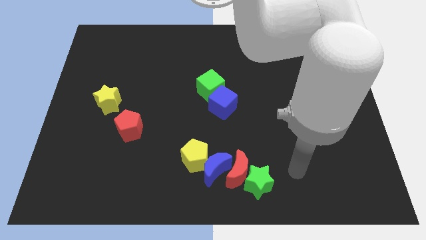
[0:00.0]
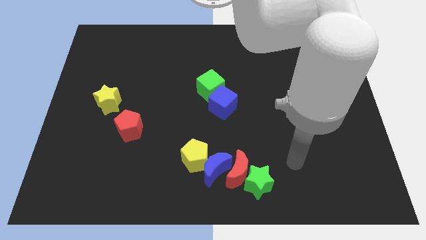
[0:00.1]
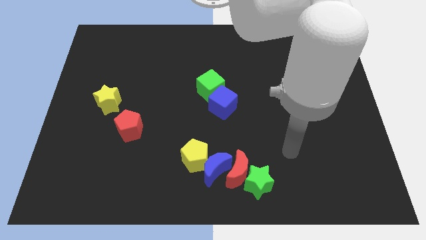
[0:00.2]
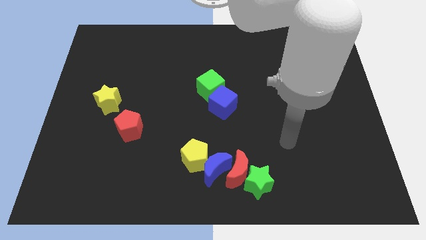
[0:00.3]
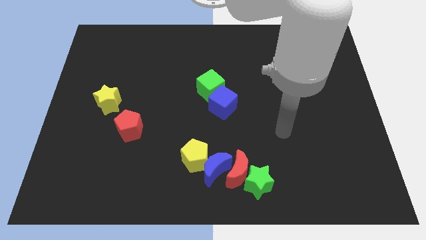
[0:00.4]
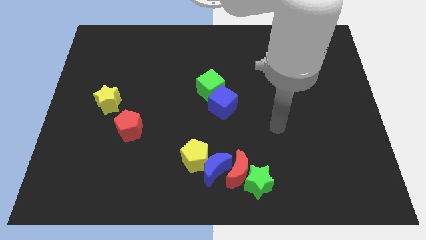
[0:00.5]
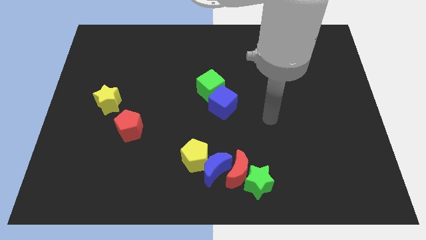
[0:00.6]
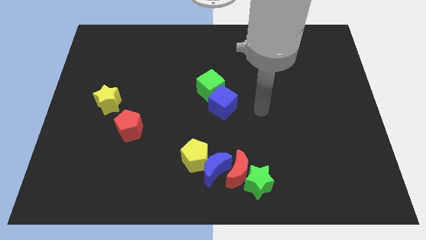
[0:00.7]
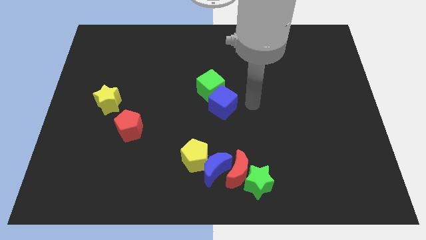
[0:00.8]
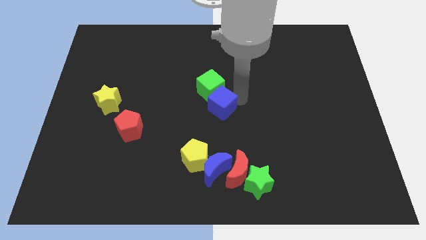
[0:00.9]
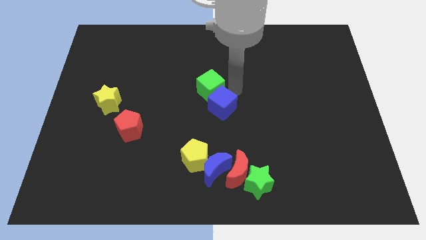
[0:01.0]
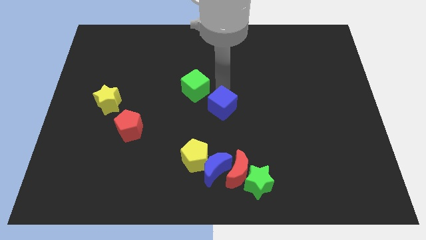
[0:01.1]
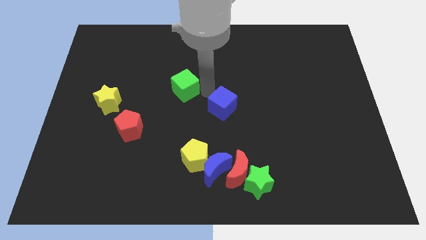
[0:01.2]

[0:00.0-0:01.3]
separate the blue cube from the green cube

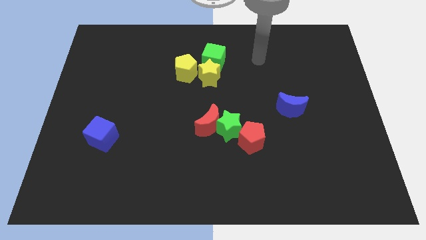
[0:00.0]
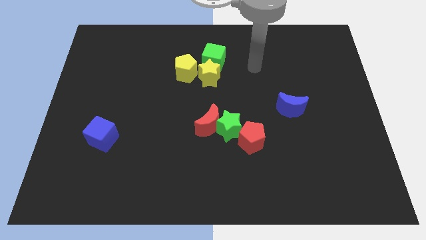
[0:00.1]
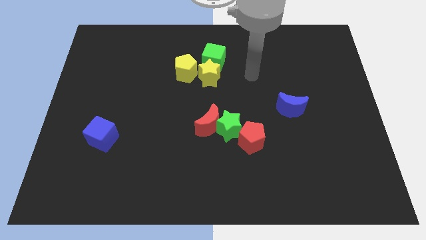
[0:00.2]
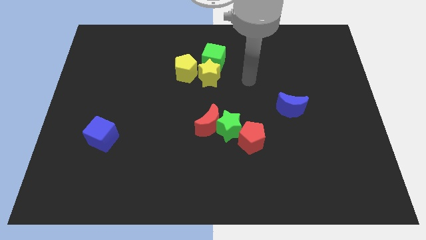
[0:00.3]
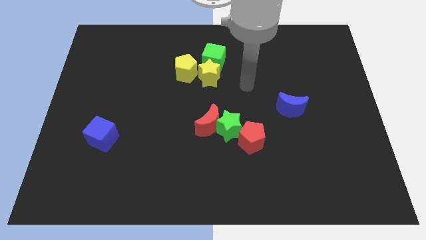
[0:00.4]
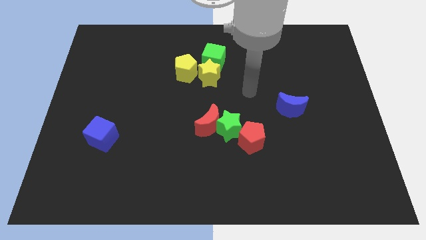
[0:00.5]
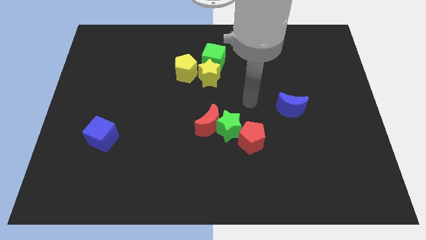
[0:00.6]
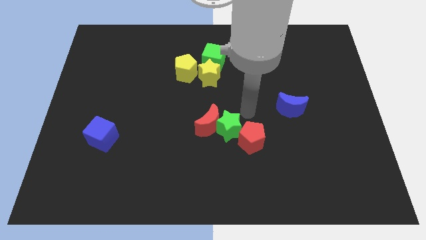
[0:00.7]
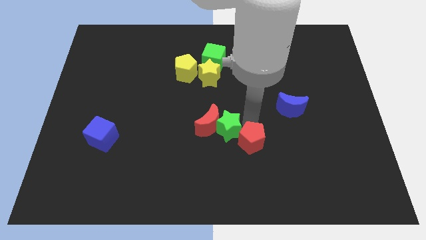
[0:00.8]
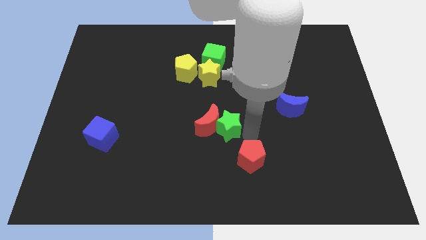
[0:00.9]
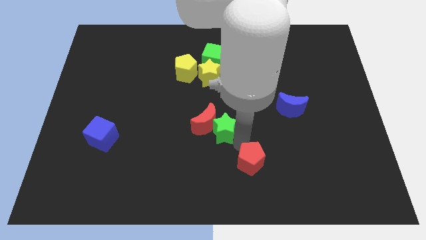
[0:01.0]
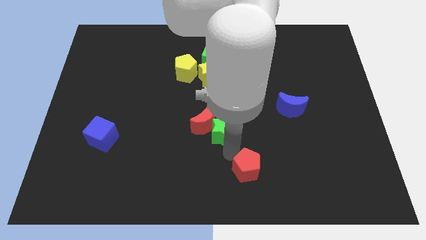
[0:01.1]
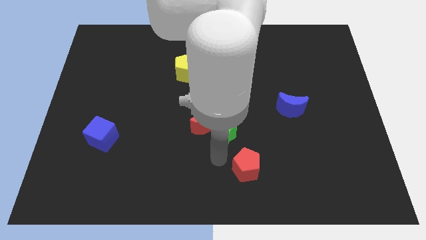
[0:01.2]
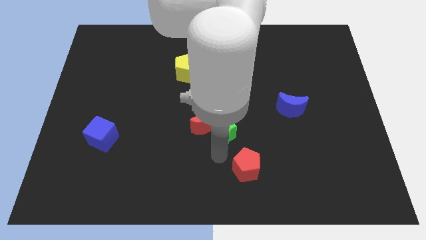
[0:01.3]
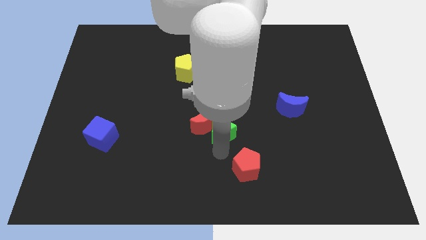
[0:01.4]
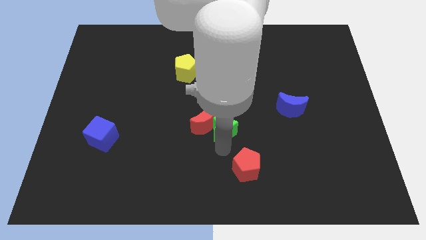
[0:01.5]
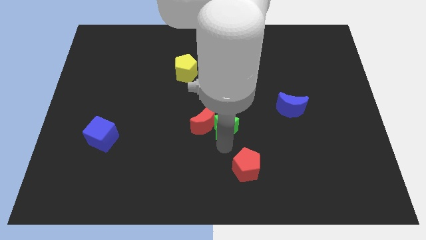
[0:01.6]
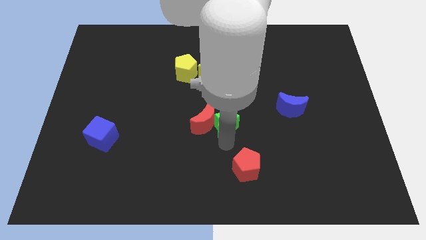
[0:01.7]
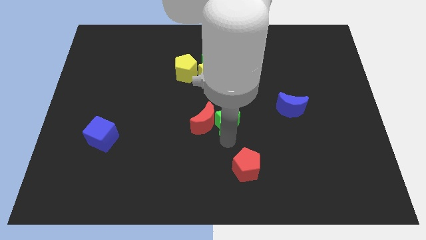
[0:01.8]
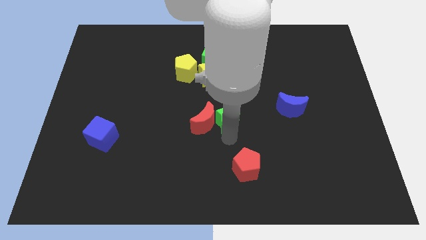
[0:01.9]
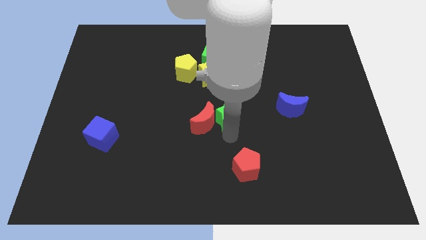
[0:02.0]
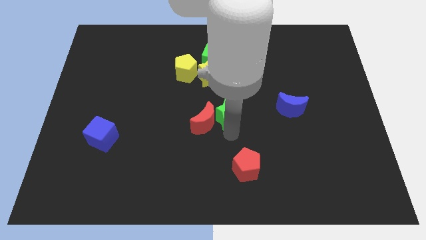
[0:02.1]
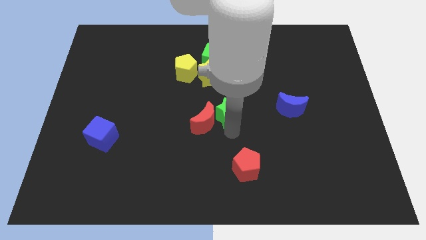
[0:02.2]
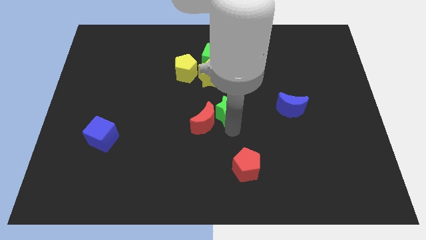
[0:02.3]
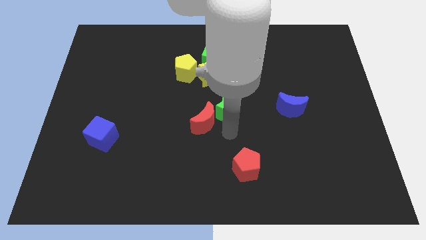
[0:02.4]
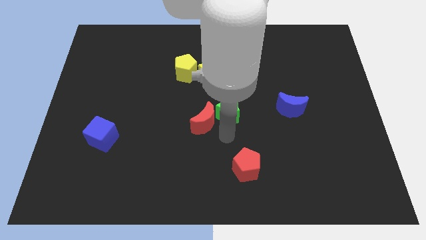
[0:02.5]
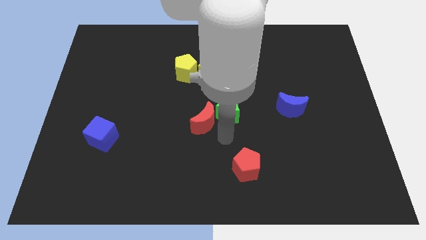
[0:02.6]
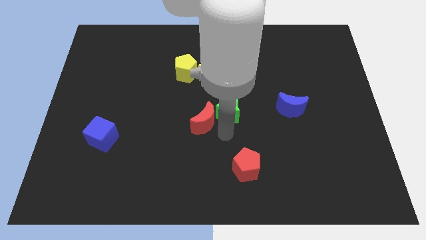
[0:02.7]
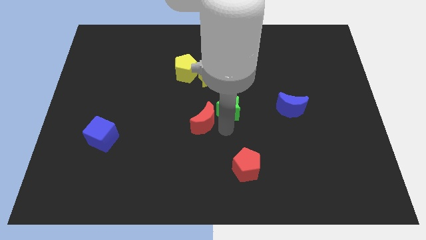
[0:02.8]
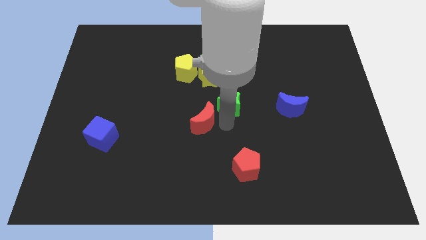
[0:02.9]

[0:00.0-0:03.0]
separate the green star from the red moon and red pentagon

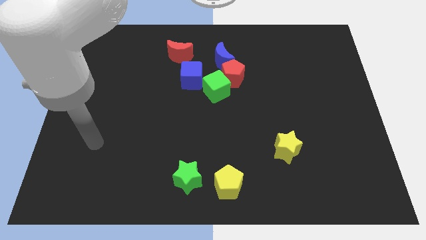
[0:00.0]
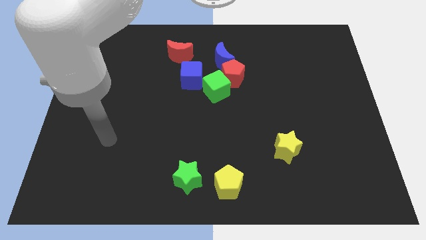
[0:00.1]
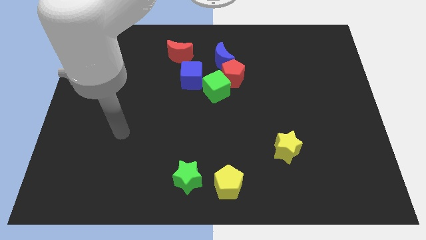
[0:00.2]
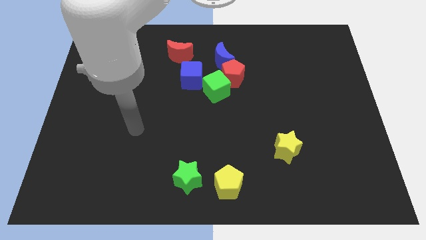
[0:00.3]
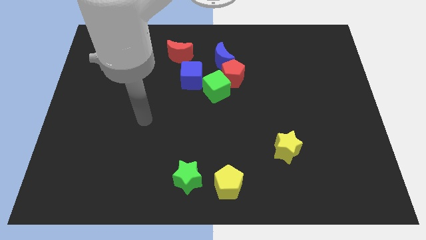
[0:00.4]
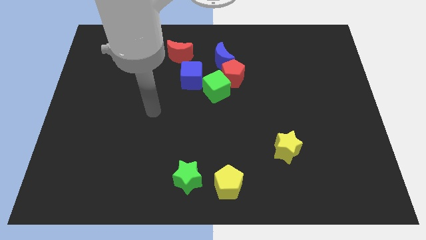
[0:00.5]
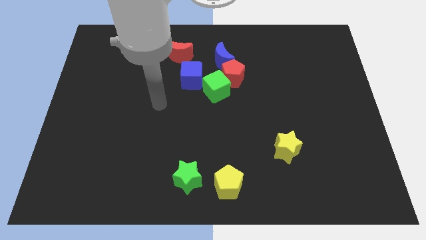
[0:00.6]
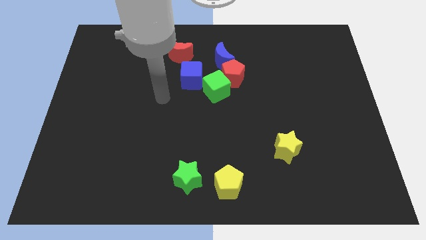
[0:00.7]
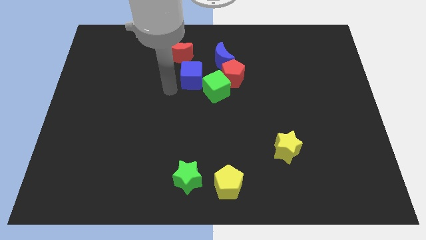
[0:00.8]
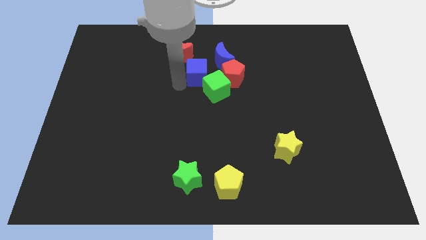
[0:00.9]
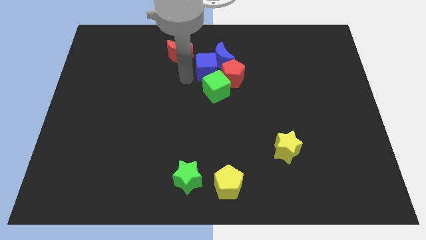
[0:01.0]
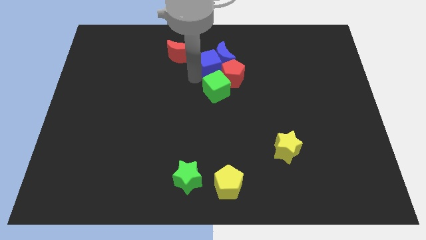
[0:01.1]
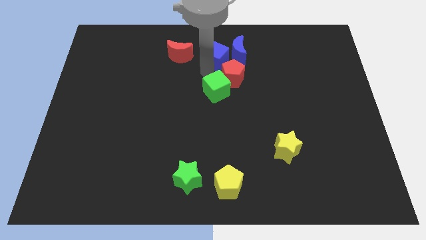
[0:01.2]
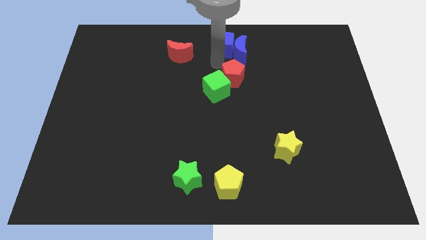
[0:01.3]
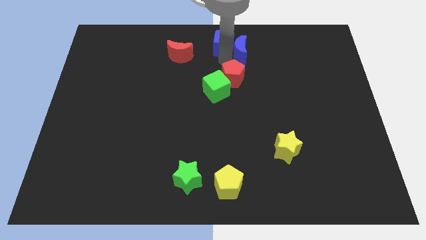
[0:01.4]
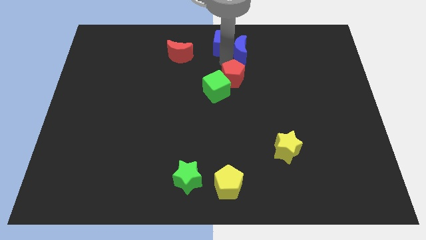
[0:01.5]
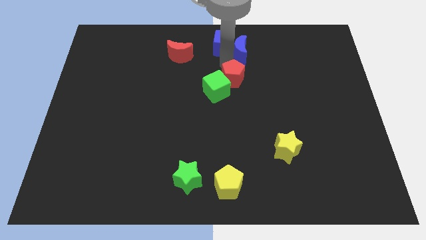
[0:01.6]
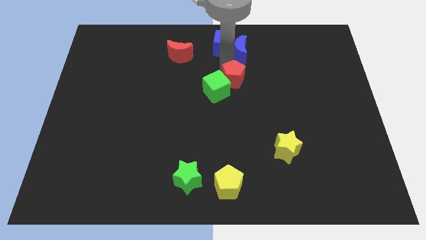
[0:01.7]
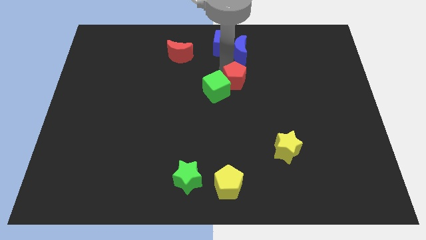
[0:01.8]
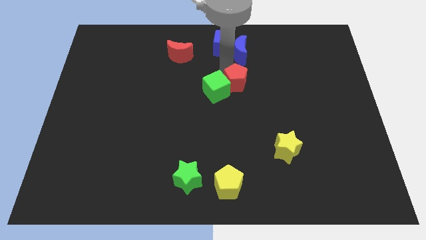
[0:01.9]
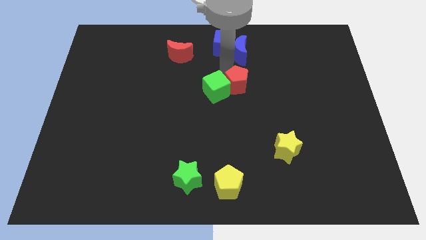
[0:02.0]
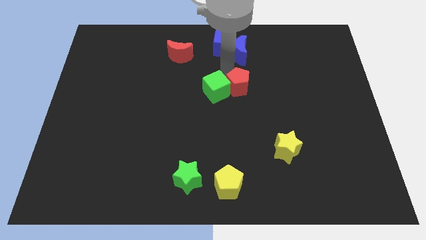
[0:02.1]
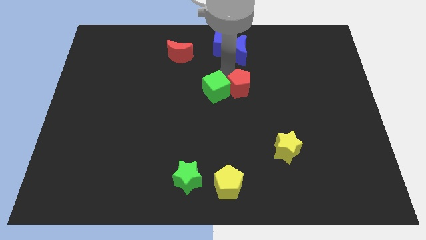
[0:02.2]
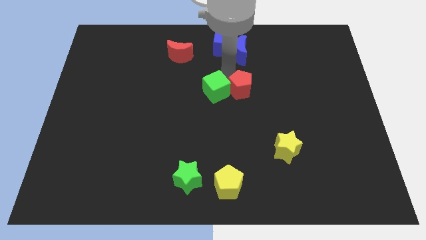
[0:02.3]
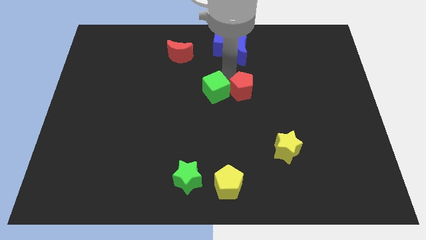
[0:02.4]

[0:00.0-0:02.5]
separate the red pentagon from the green cube, blue moon, and blue cube

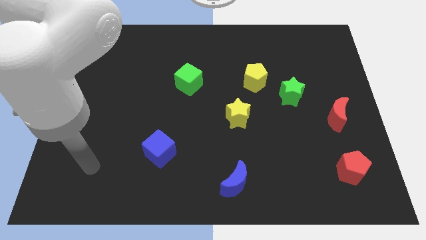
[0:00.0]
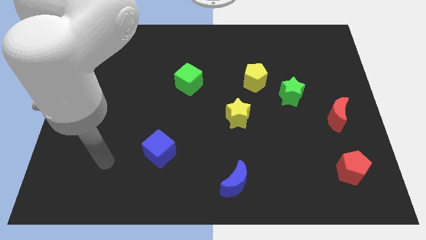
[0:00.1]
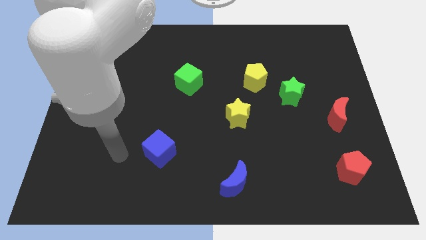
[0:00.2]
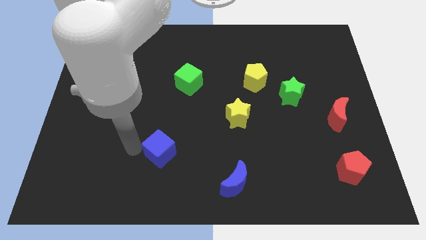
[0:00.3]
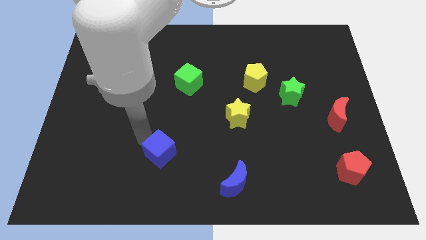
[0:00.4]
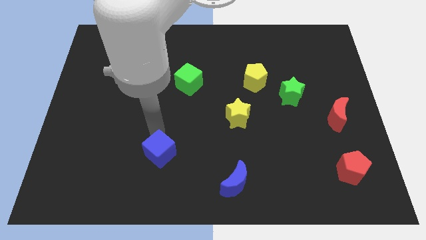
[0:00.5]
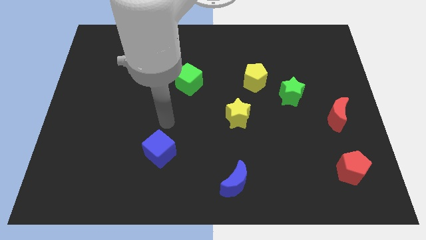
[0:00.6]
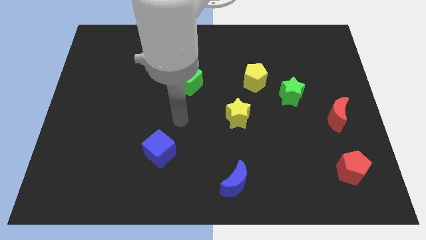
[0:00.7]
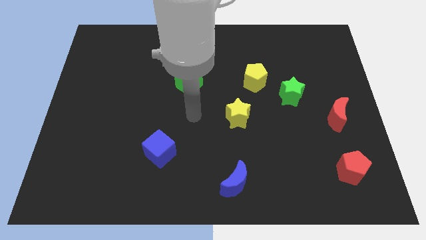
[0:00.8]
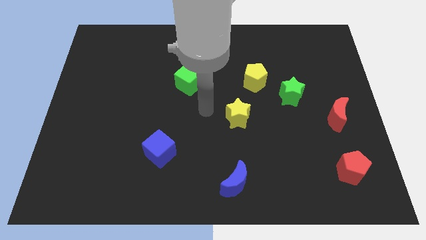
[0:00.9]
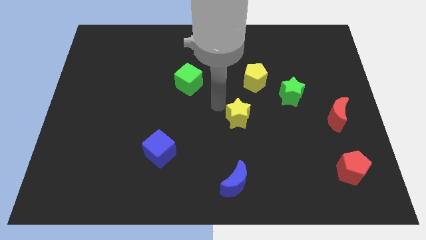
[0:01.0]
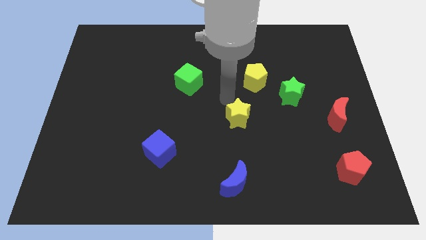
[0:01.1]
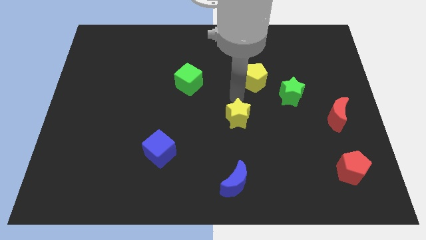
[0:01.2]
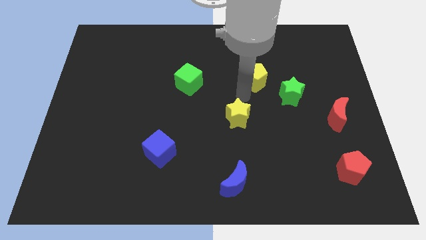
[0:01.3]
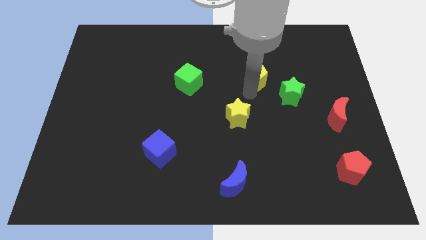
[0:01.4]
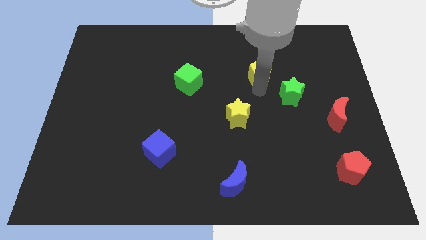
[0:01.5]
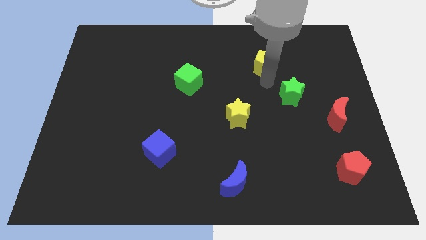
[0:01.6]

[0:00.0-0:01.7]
move the green star away from the yellow pentagon

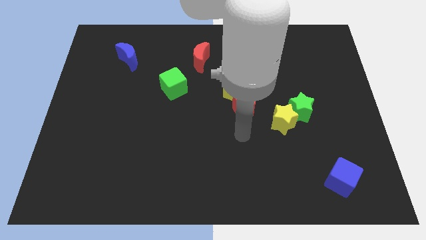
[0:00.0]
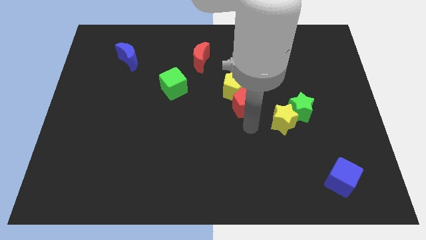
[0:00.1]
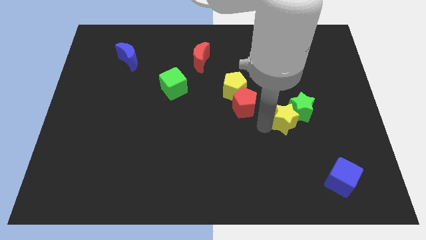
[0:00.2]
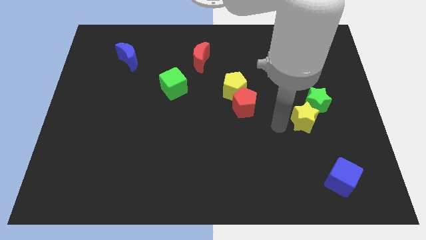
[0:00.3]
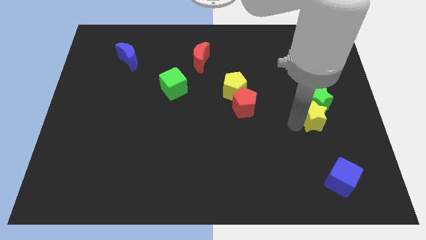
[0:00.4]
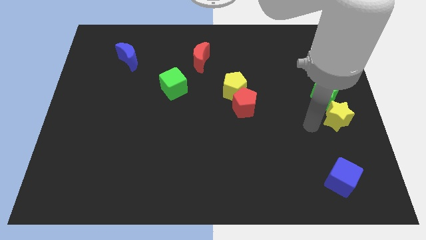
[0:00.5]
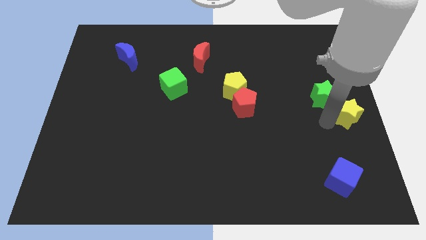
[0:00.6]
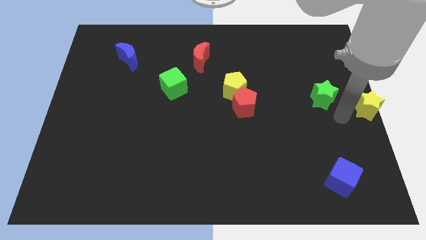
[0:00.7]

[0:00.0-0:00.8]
move the green star away from the yellow star
